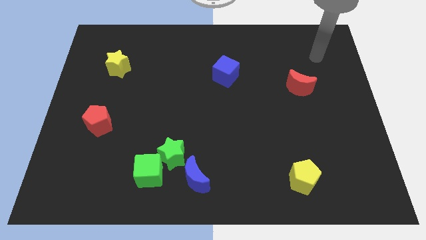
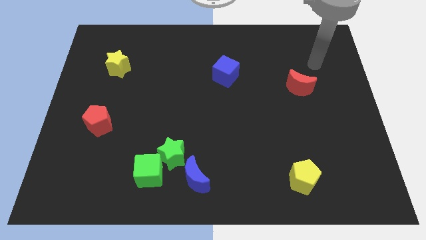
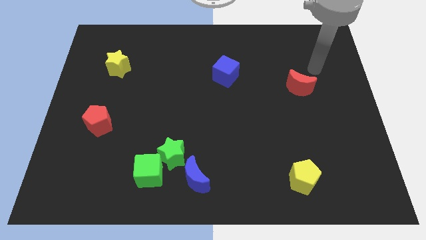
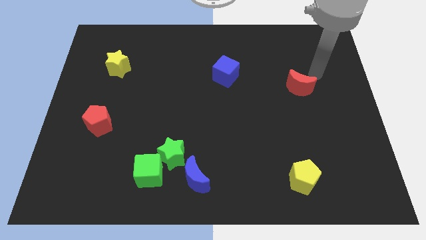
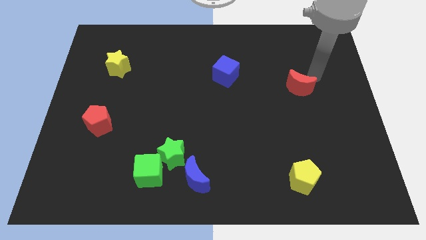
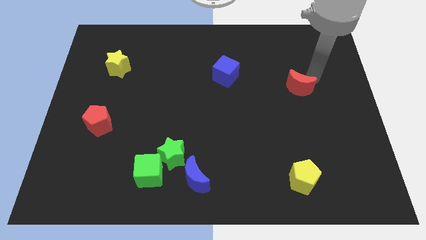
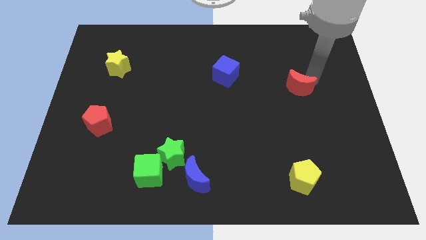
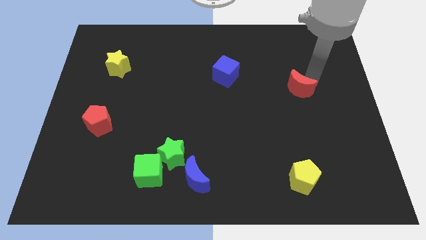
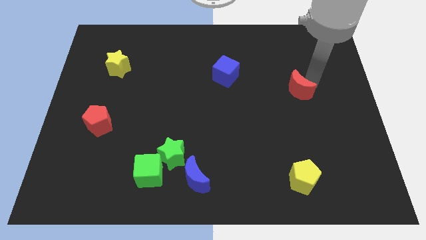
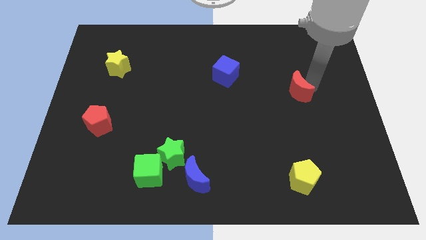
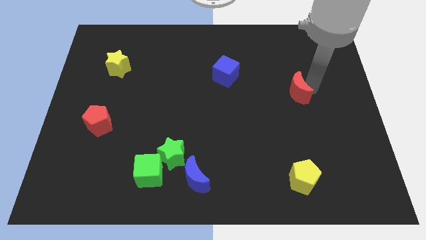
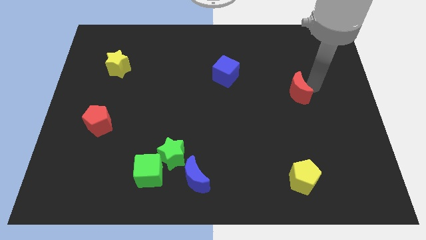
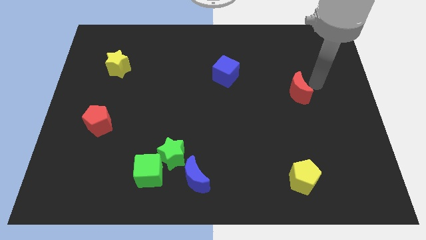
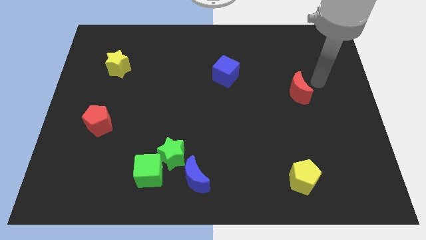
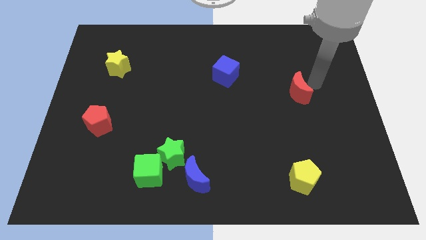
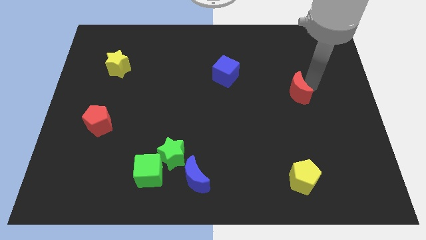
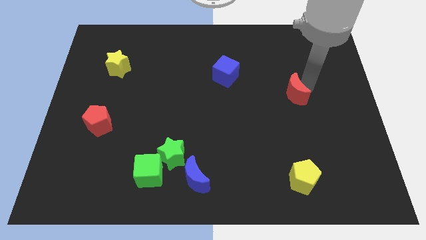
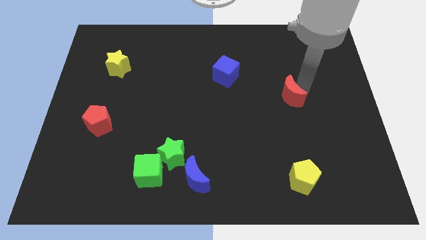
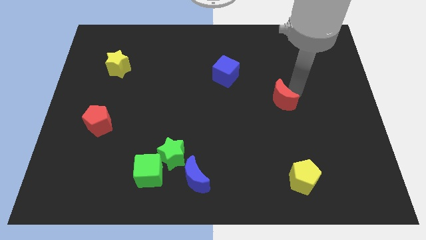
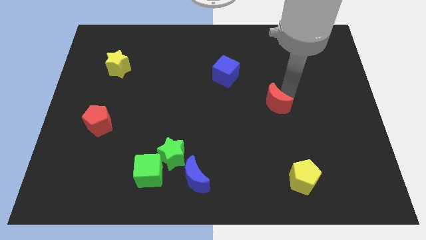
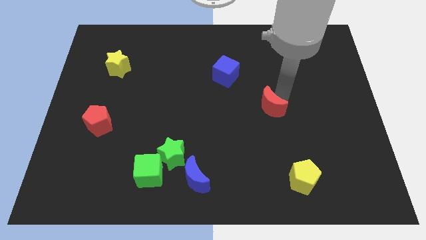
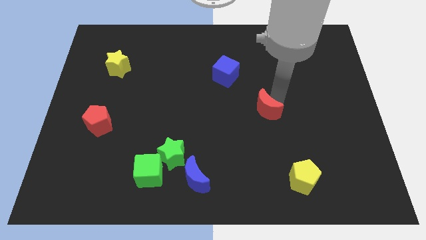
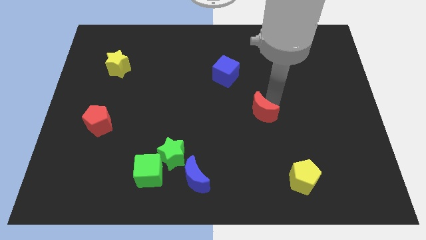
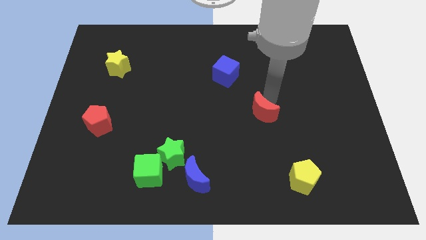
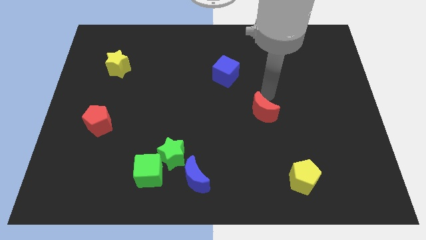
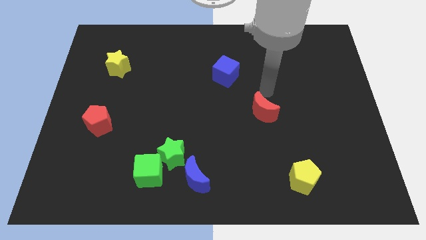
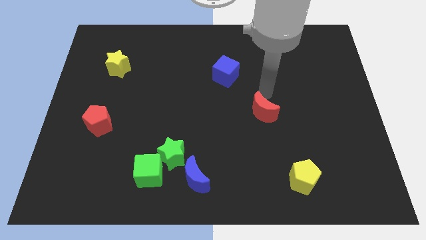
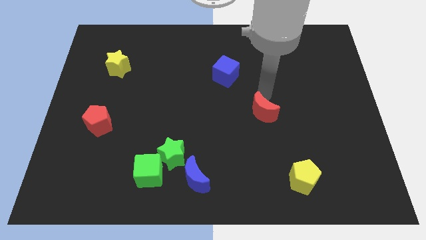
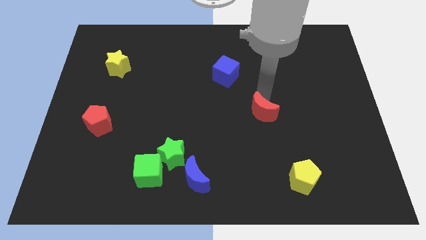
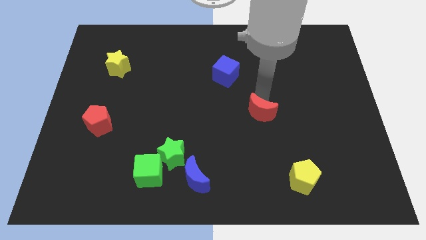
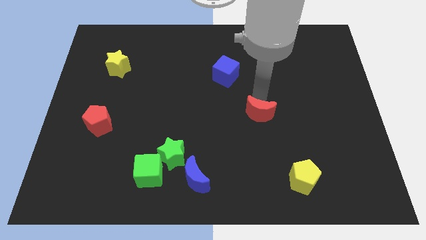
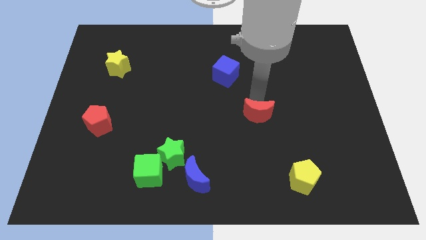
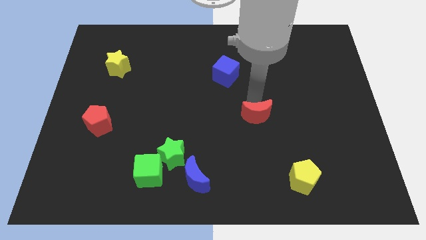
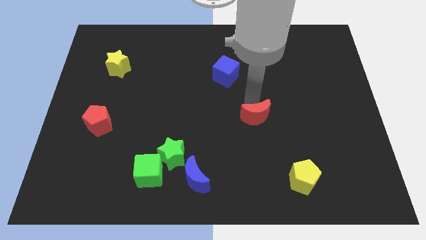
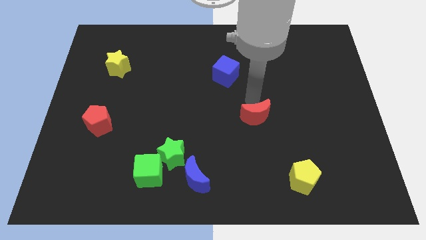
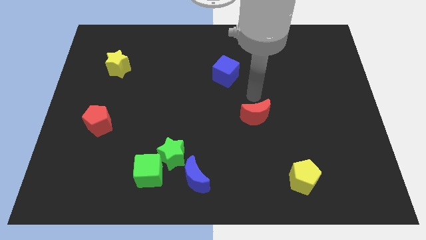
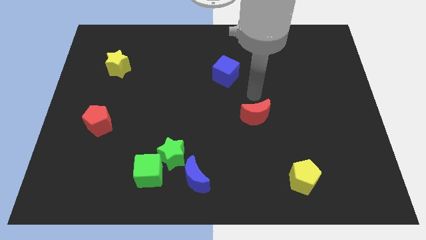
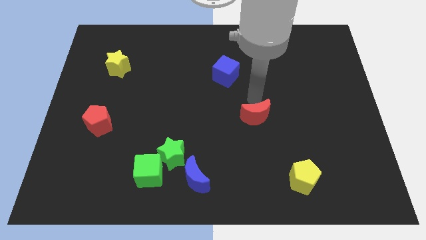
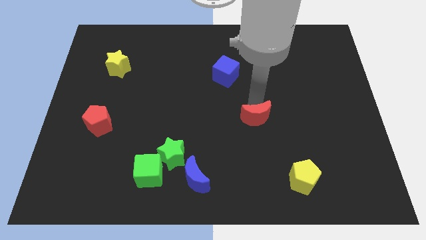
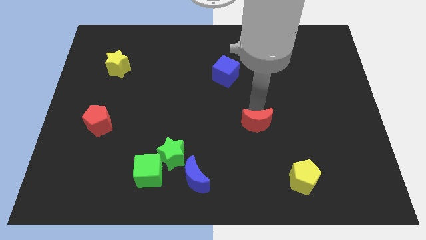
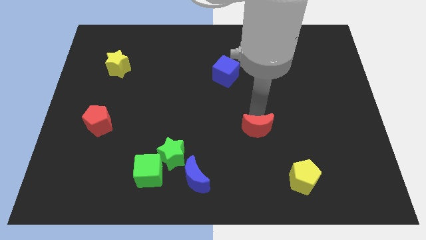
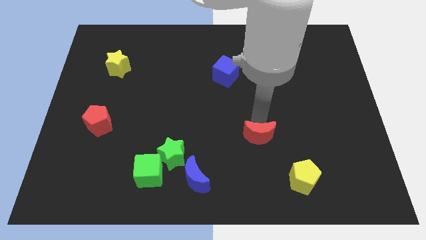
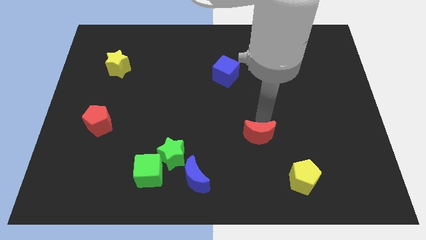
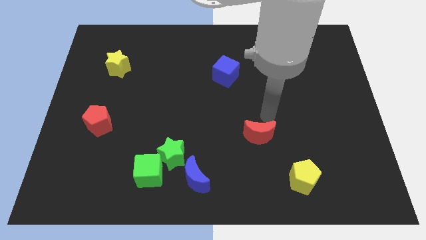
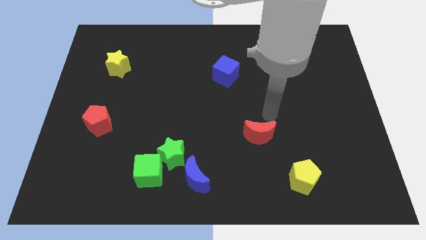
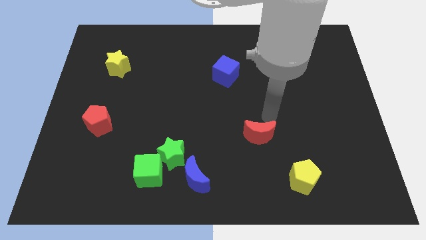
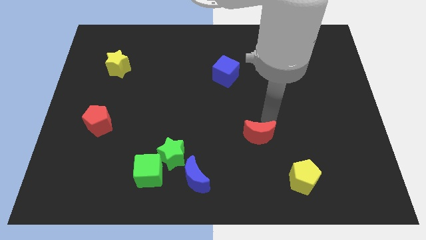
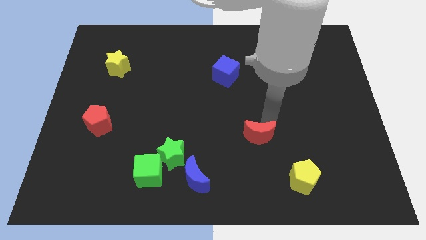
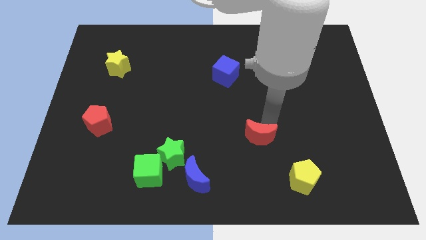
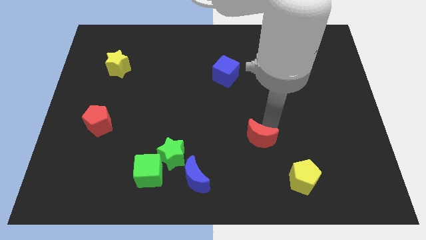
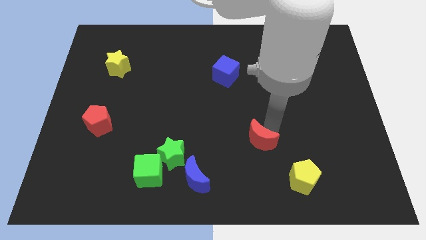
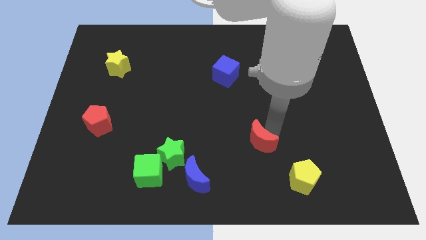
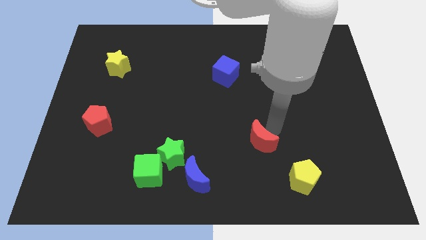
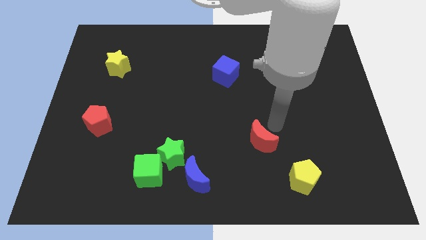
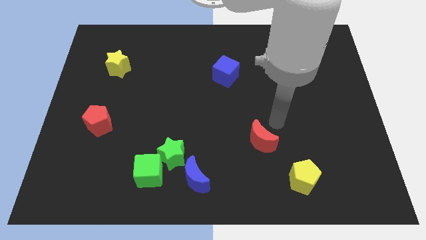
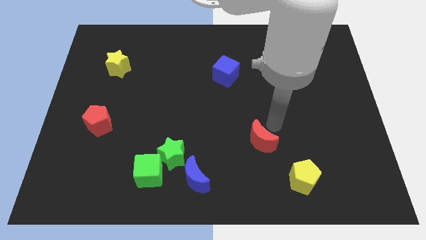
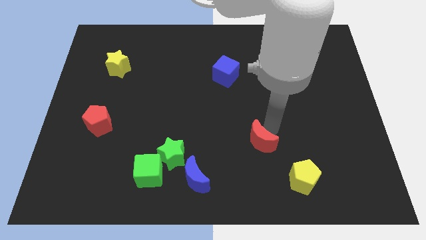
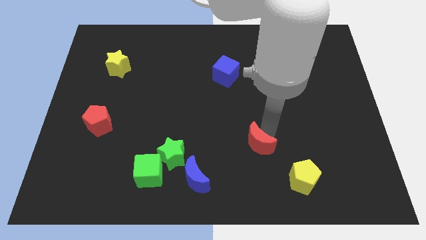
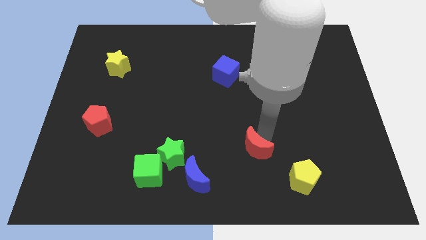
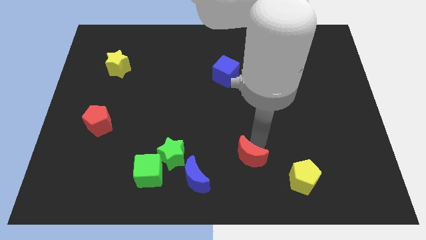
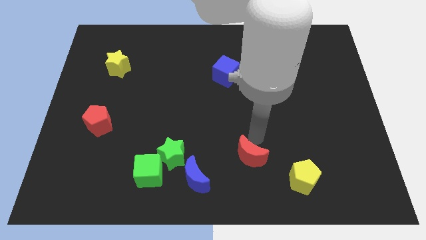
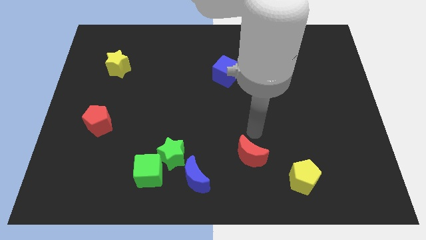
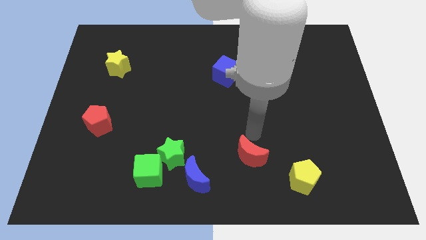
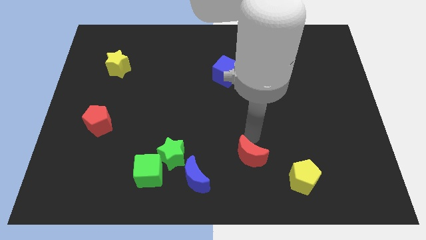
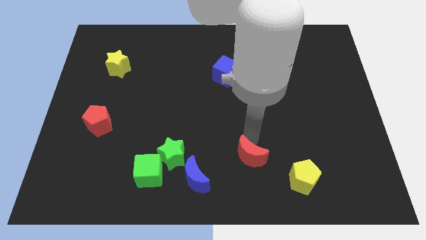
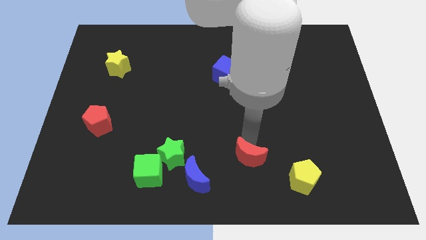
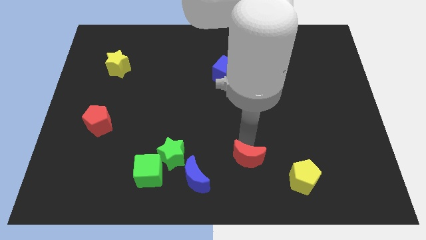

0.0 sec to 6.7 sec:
push the red moon just right of the blue moon

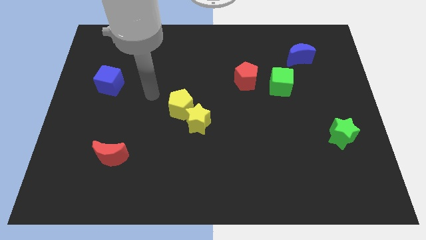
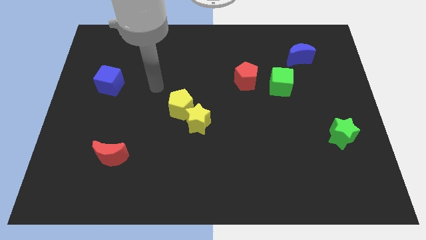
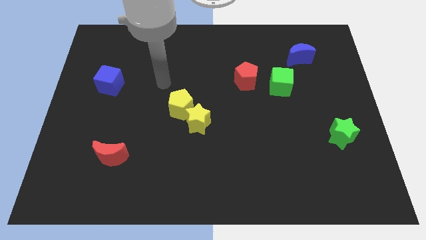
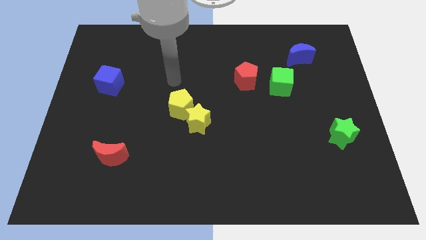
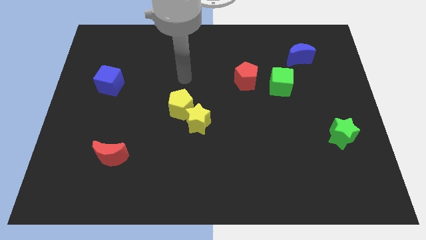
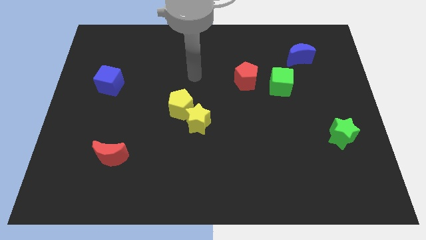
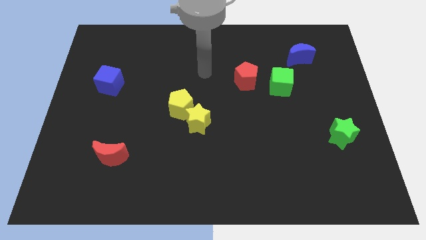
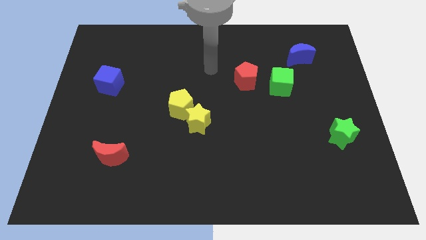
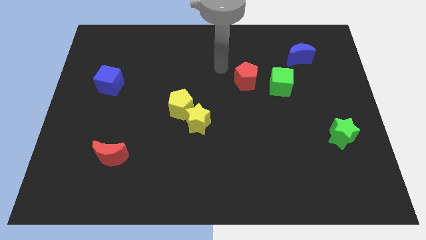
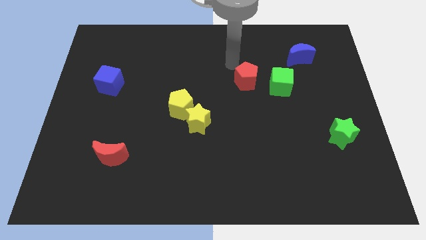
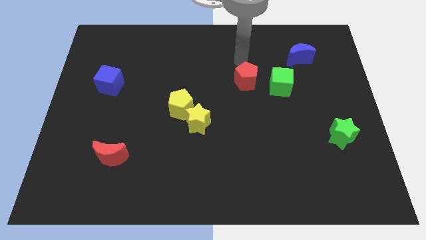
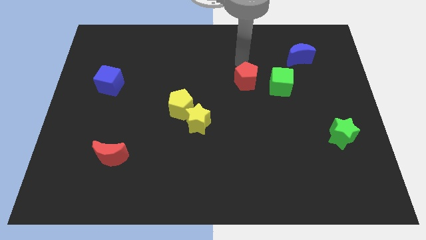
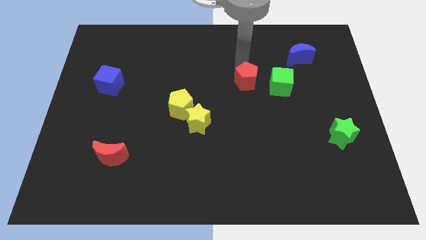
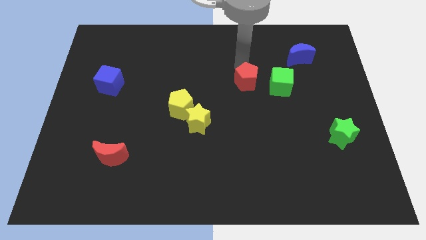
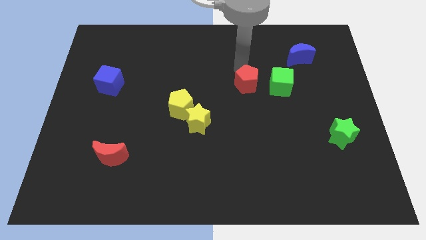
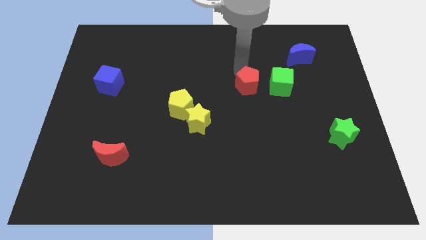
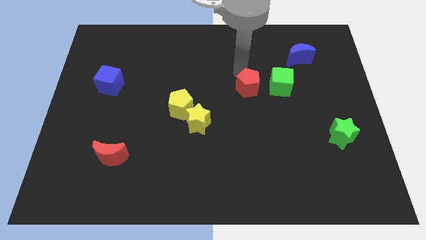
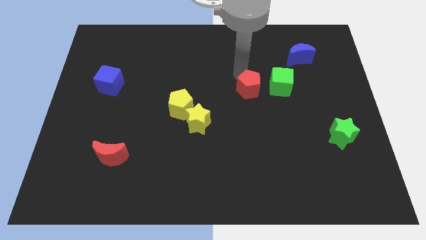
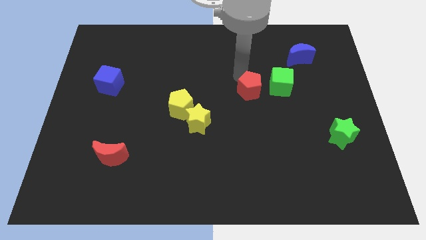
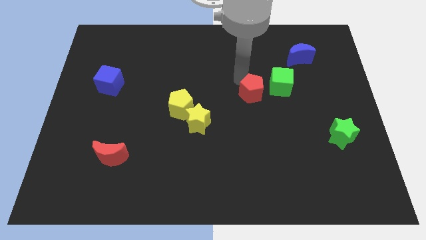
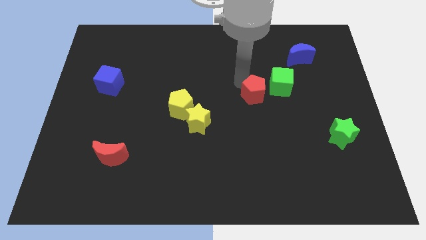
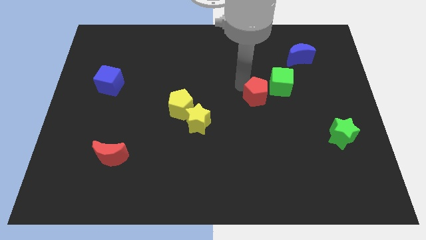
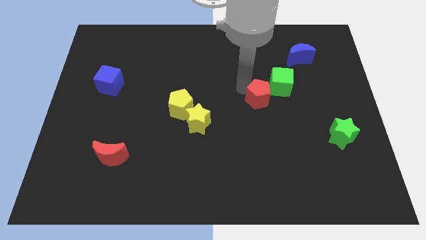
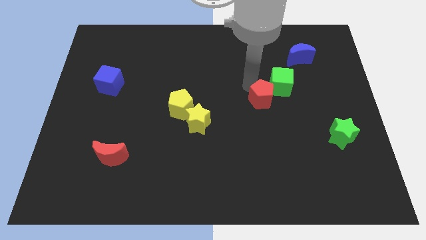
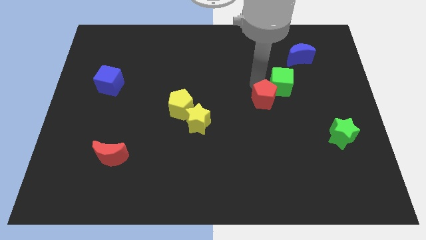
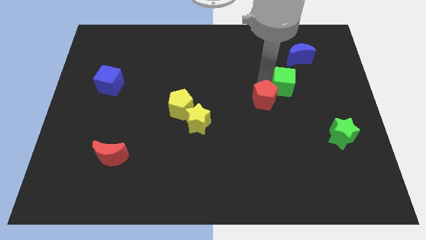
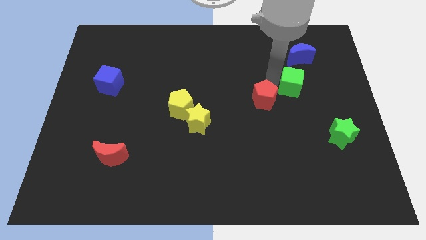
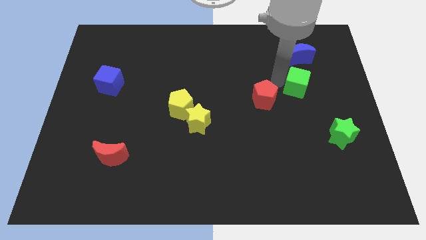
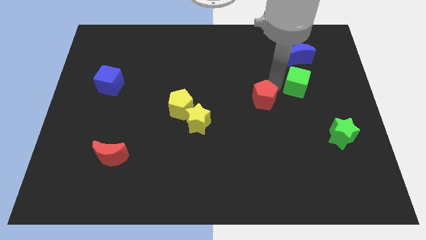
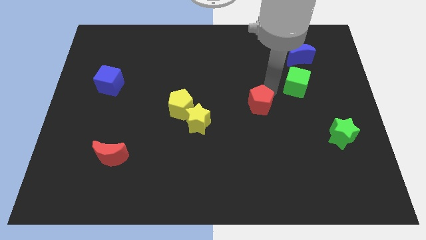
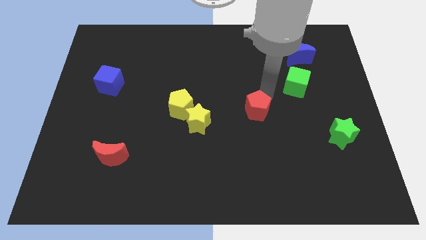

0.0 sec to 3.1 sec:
put the red pentagon to the right of the yellow star
